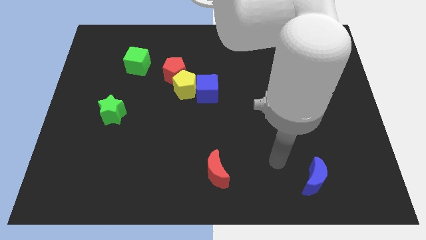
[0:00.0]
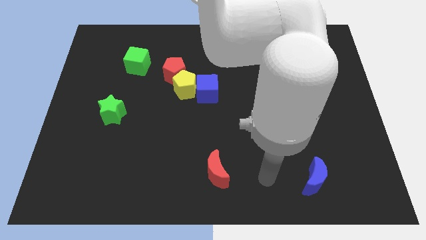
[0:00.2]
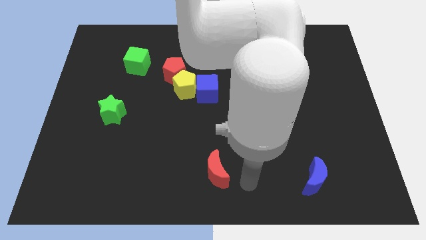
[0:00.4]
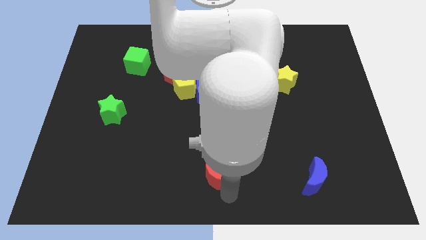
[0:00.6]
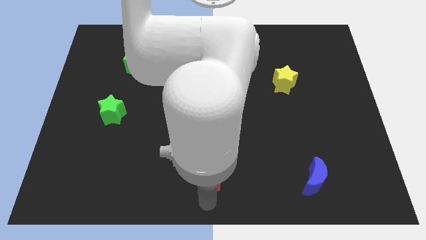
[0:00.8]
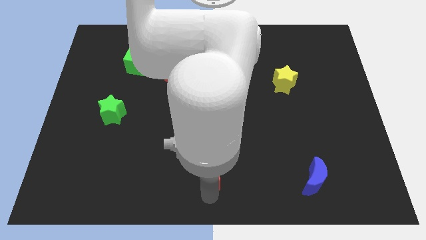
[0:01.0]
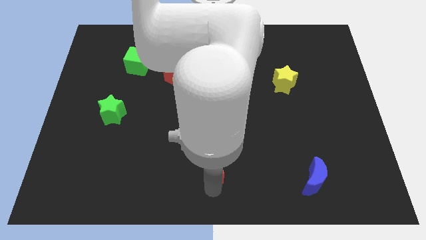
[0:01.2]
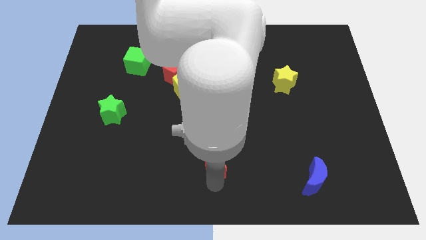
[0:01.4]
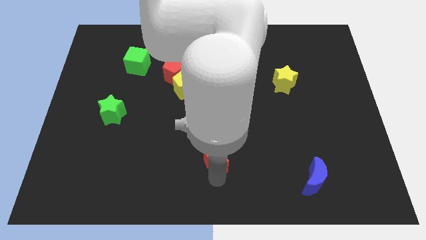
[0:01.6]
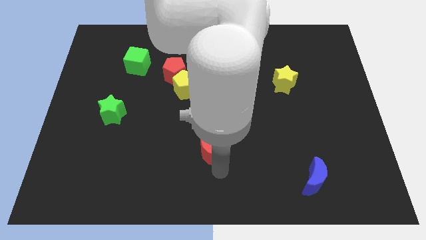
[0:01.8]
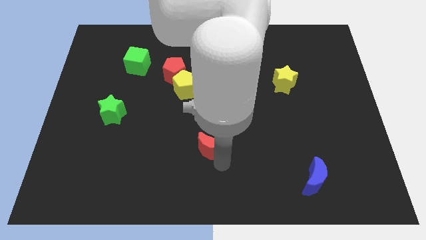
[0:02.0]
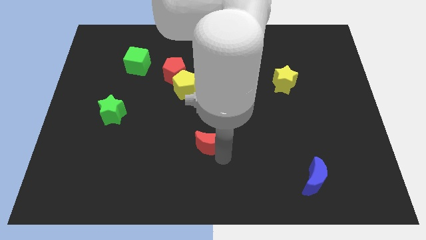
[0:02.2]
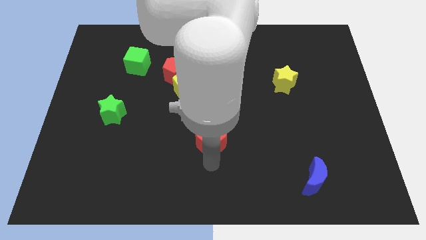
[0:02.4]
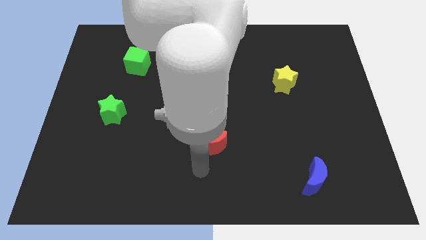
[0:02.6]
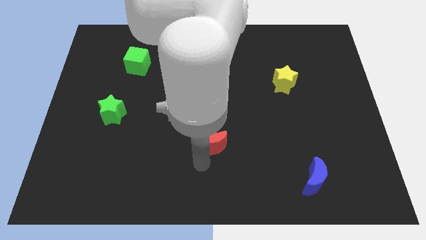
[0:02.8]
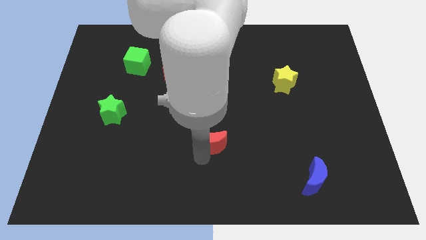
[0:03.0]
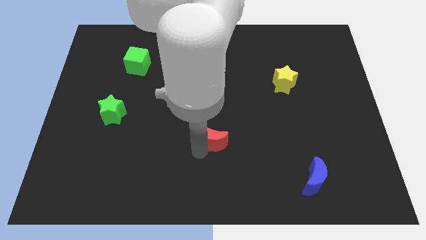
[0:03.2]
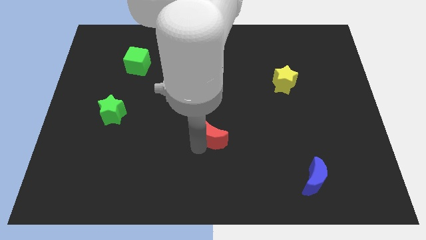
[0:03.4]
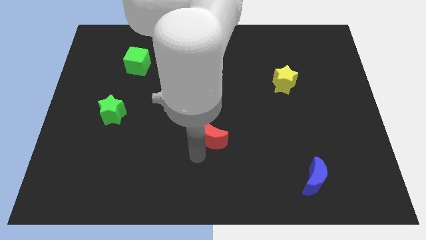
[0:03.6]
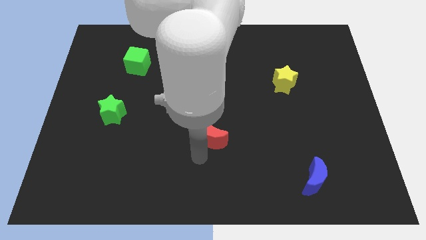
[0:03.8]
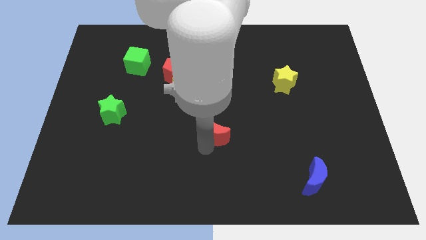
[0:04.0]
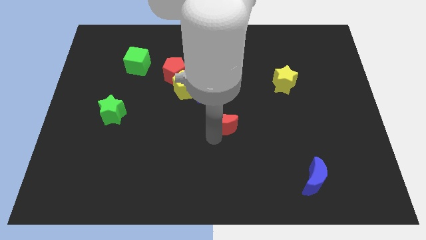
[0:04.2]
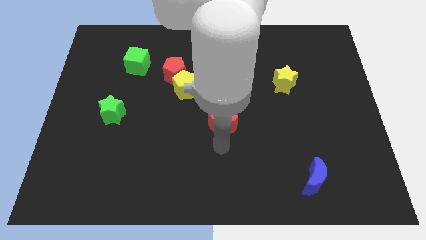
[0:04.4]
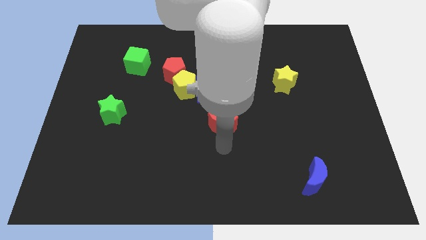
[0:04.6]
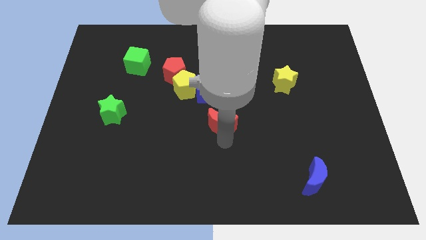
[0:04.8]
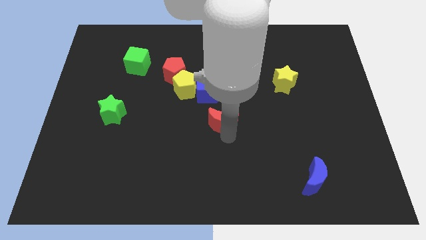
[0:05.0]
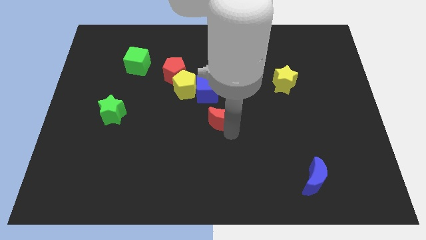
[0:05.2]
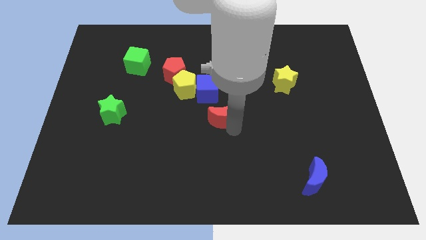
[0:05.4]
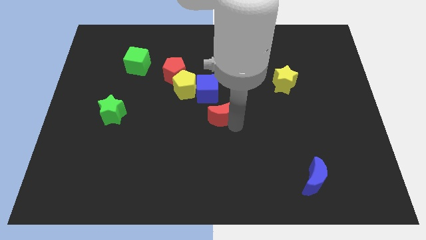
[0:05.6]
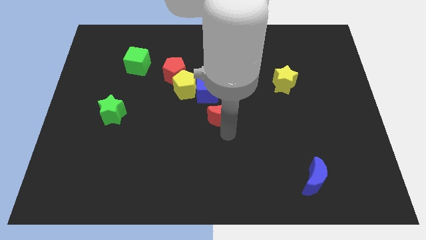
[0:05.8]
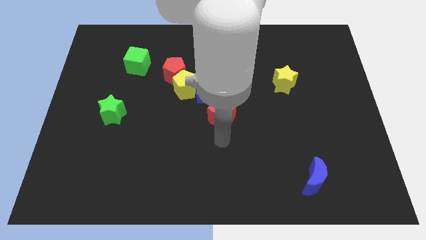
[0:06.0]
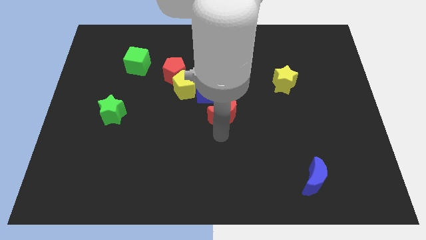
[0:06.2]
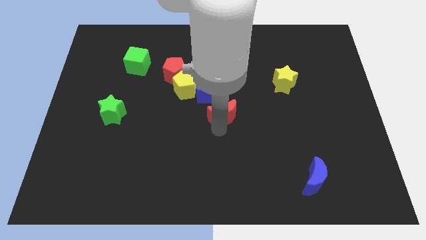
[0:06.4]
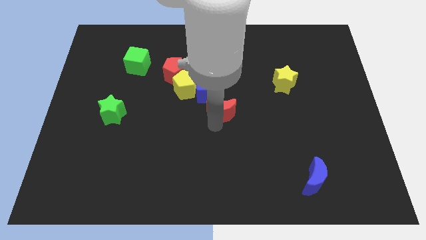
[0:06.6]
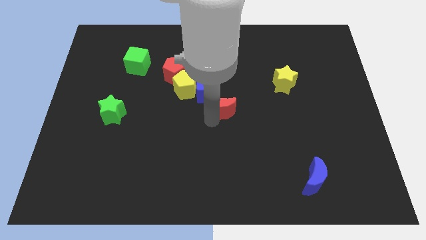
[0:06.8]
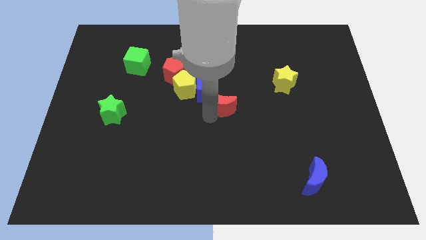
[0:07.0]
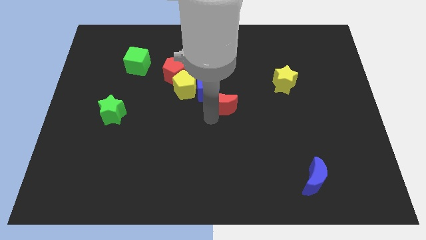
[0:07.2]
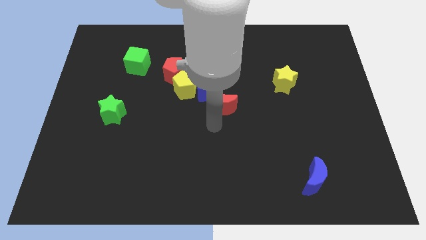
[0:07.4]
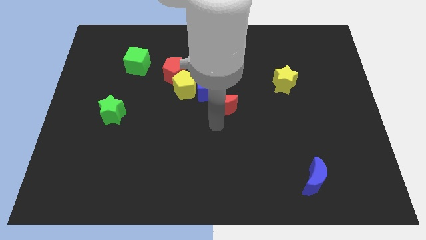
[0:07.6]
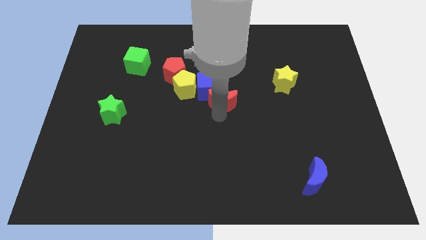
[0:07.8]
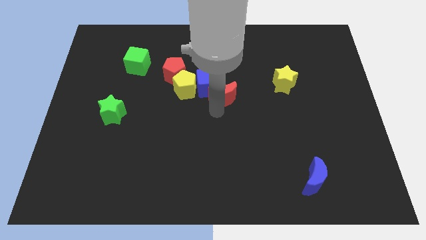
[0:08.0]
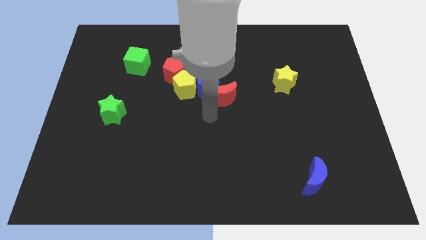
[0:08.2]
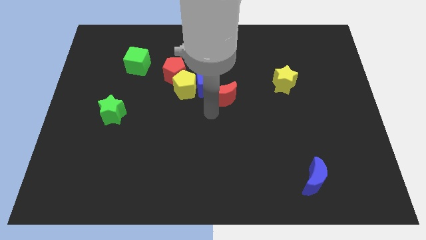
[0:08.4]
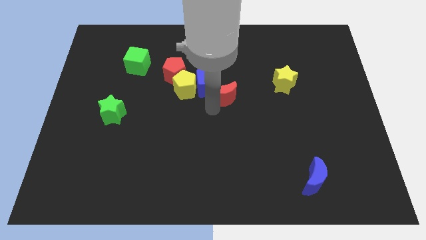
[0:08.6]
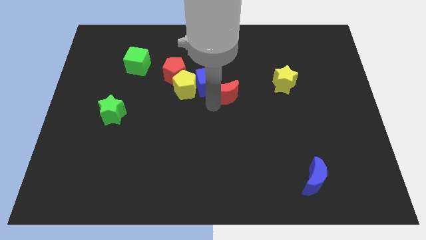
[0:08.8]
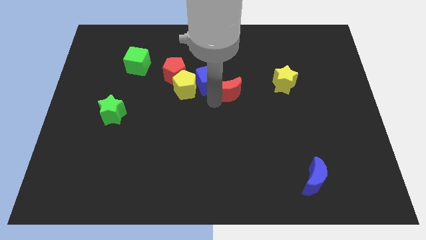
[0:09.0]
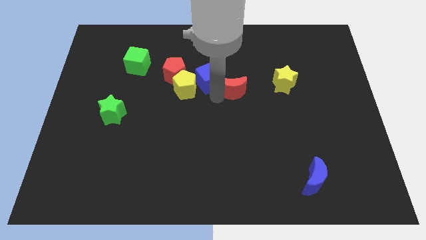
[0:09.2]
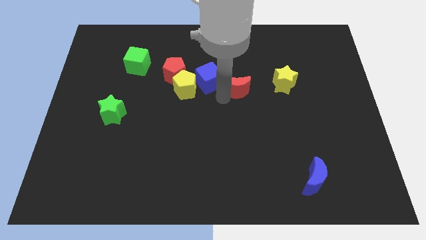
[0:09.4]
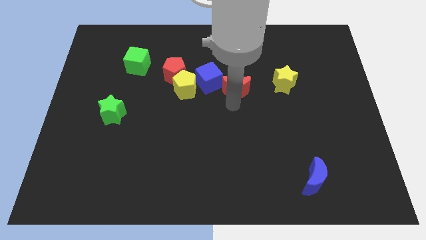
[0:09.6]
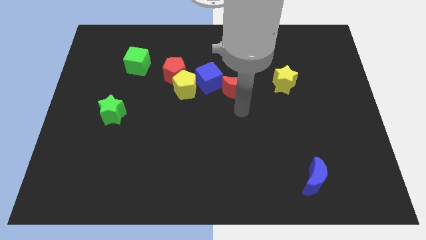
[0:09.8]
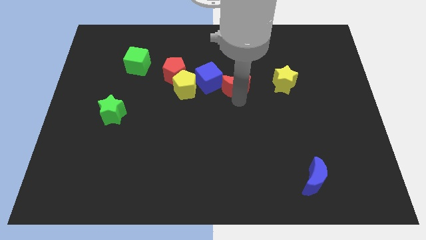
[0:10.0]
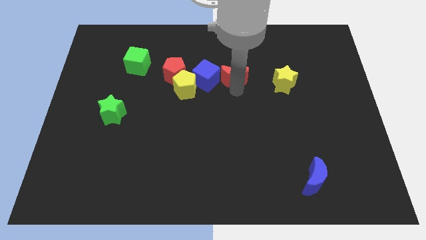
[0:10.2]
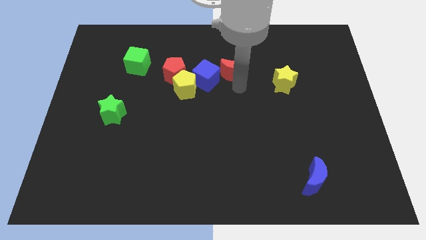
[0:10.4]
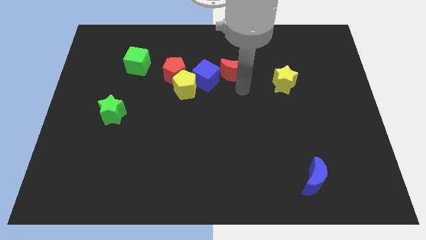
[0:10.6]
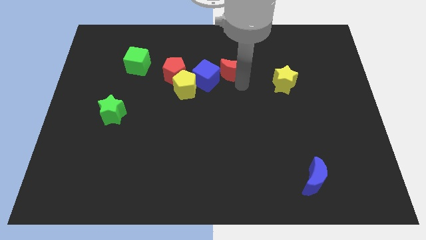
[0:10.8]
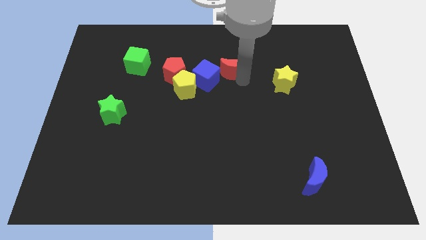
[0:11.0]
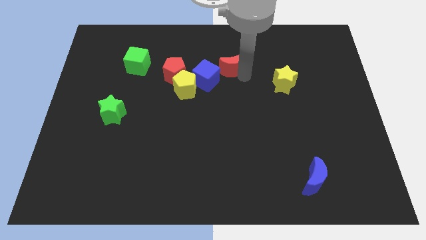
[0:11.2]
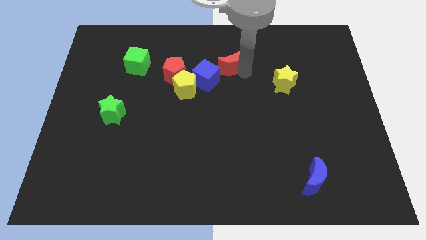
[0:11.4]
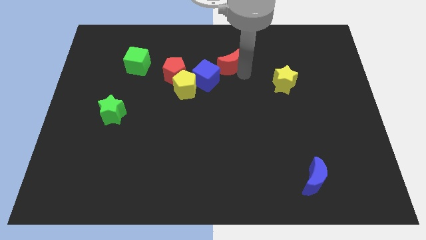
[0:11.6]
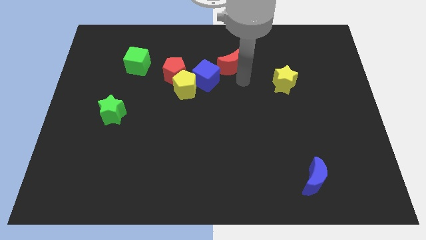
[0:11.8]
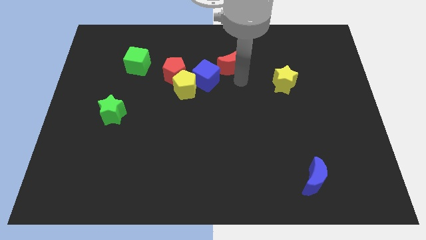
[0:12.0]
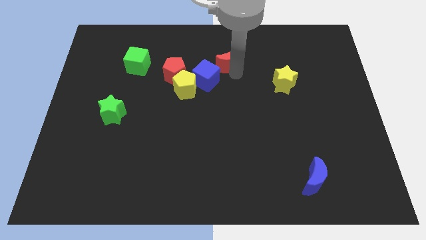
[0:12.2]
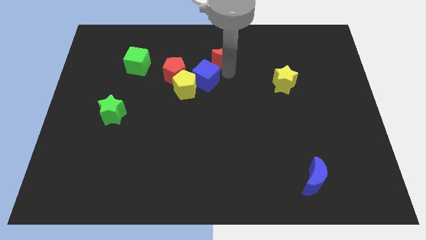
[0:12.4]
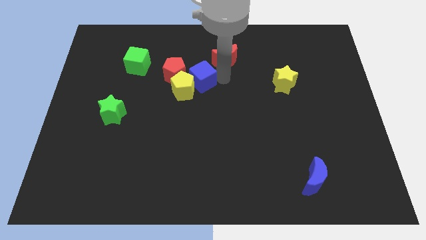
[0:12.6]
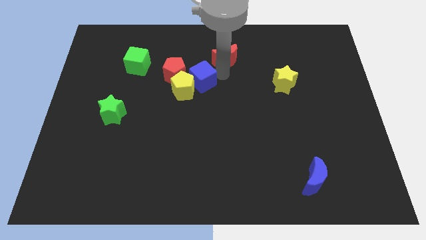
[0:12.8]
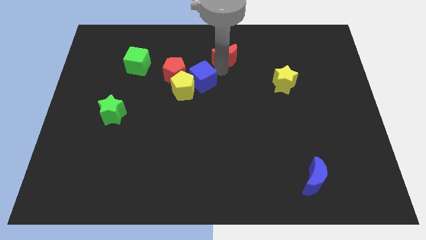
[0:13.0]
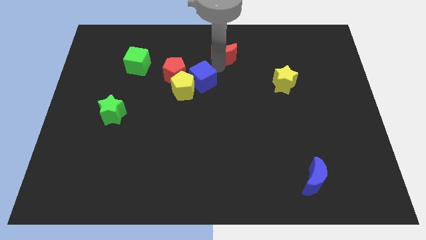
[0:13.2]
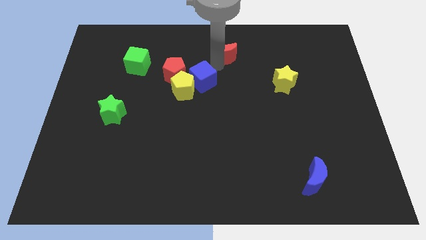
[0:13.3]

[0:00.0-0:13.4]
push the red moon to the top

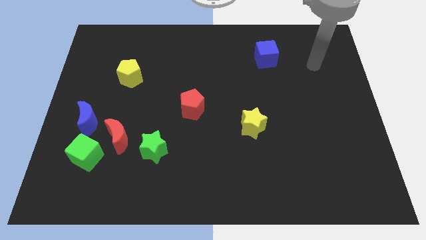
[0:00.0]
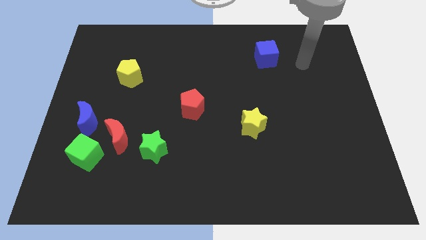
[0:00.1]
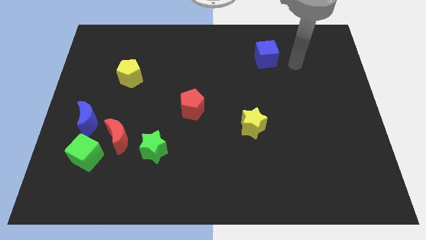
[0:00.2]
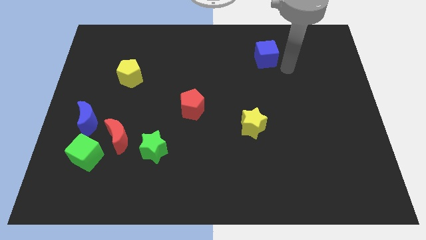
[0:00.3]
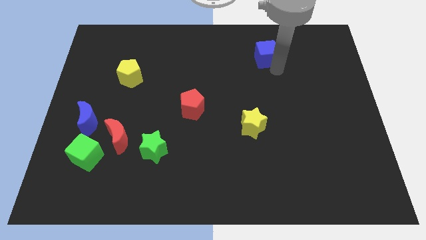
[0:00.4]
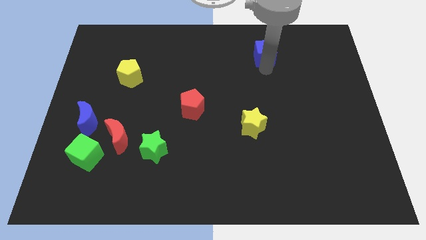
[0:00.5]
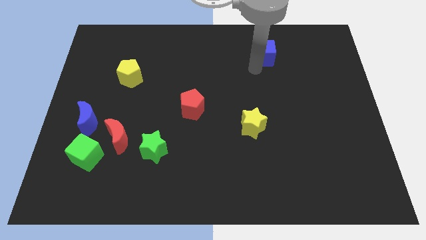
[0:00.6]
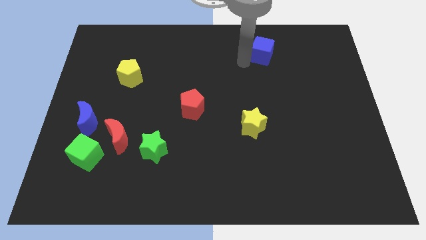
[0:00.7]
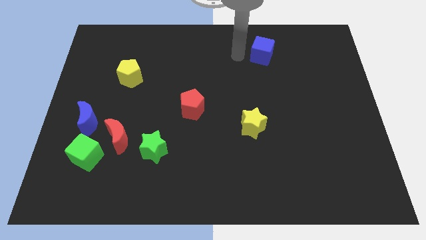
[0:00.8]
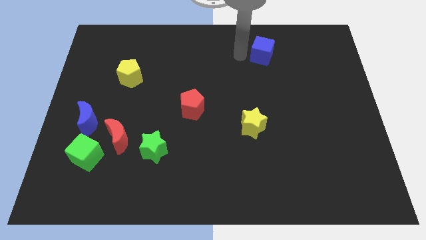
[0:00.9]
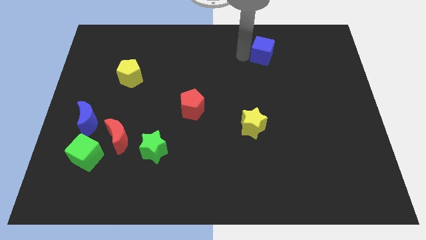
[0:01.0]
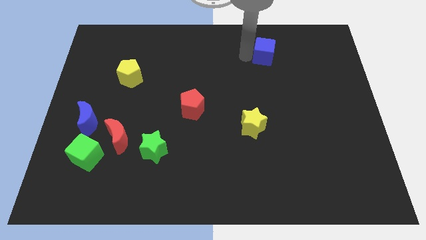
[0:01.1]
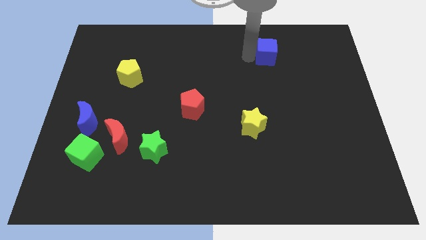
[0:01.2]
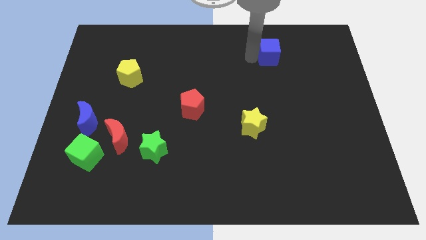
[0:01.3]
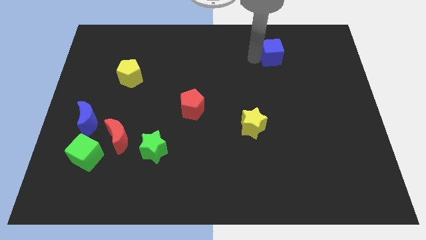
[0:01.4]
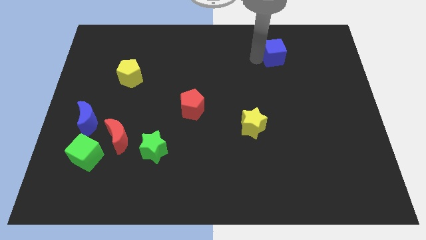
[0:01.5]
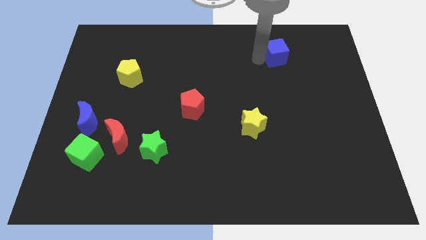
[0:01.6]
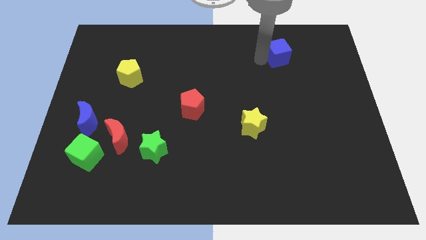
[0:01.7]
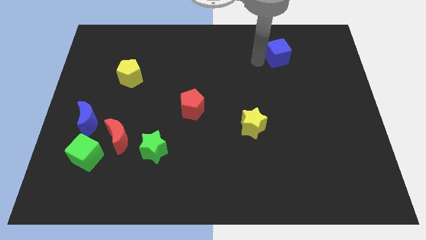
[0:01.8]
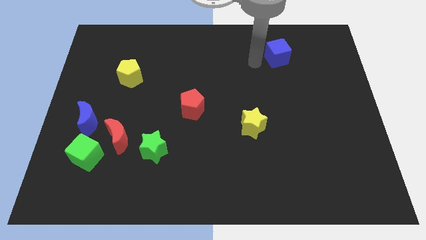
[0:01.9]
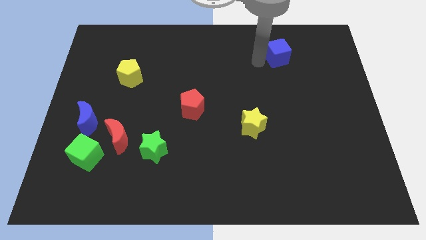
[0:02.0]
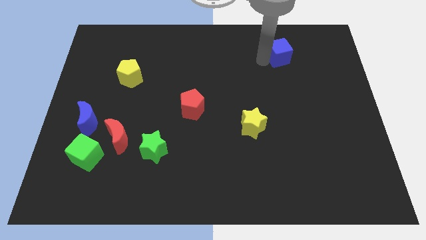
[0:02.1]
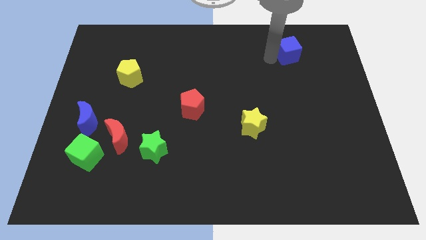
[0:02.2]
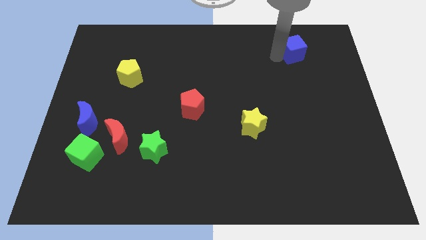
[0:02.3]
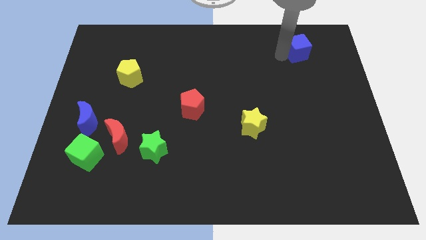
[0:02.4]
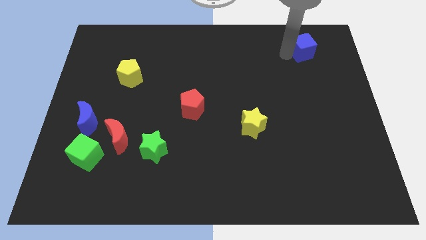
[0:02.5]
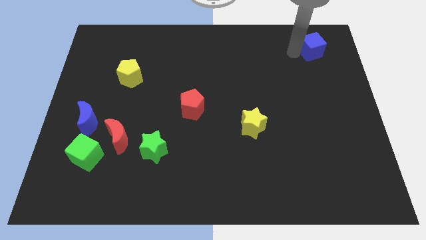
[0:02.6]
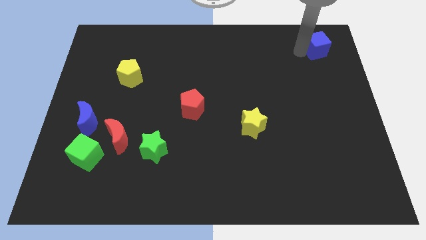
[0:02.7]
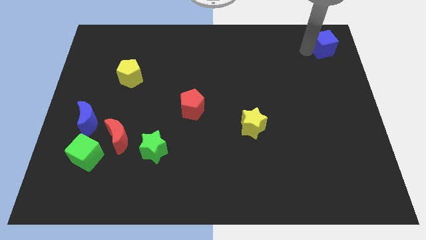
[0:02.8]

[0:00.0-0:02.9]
push the blue cube to the top right of the board
